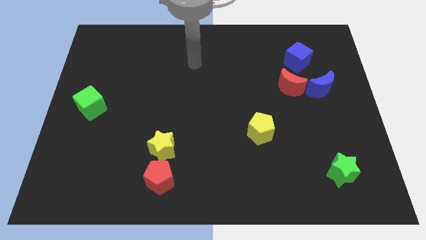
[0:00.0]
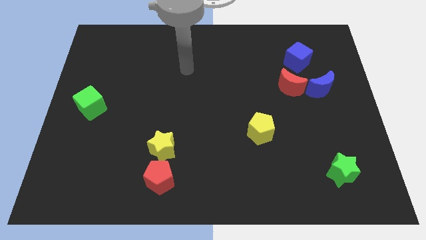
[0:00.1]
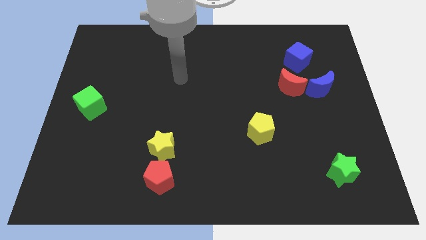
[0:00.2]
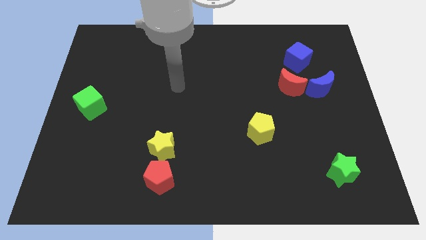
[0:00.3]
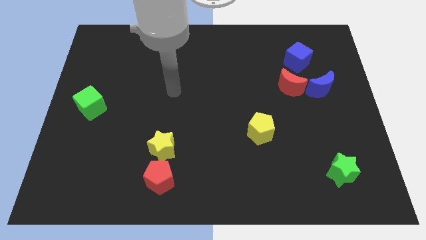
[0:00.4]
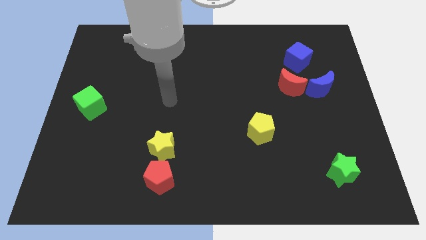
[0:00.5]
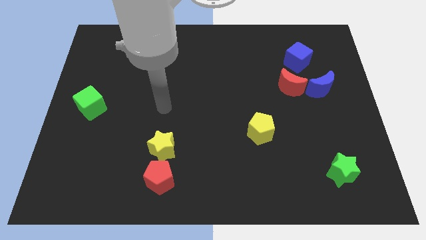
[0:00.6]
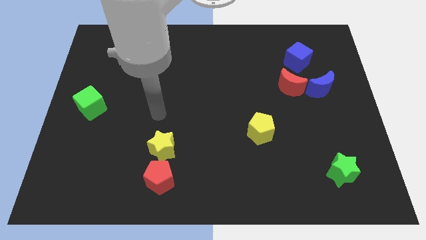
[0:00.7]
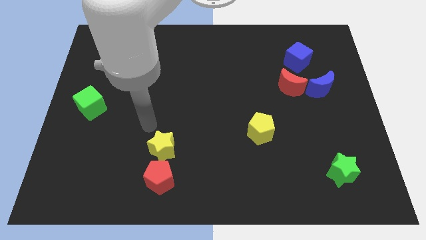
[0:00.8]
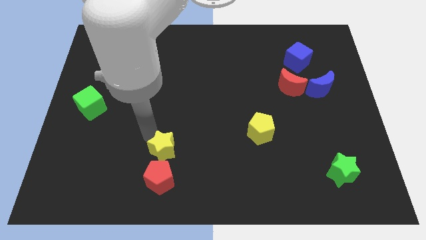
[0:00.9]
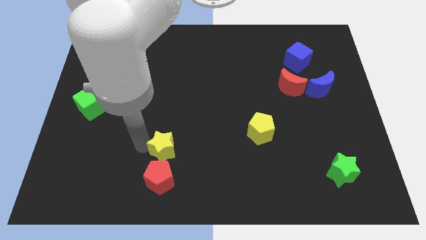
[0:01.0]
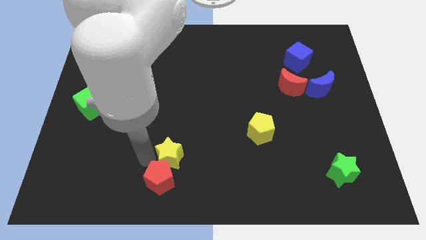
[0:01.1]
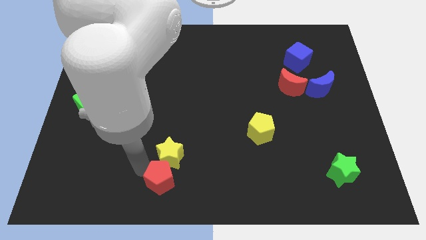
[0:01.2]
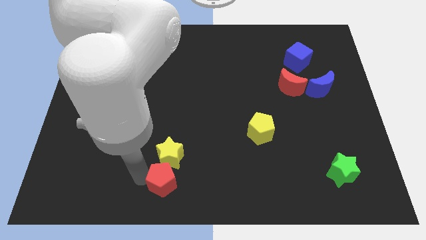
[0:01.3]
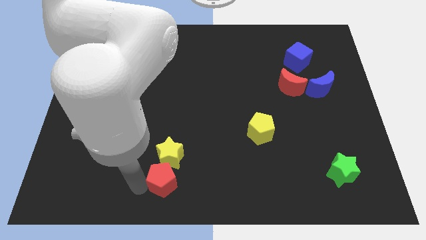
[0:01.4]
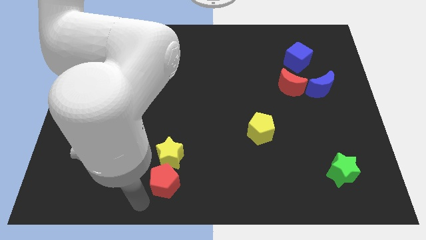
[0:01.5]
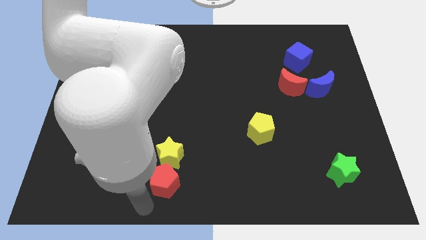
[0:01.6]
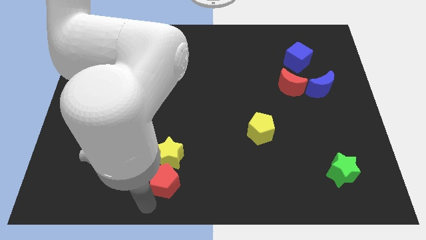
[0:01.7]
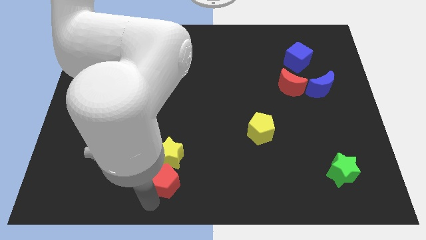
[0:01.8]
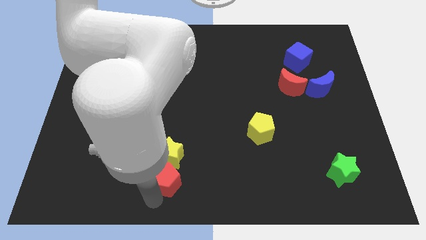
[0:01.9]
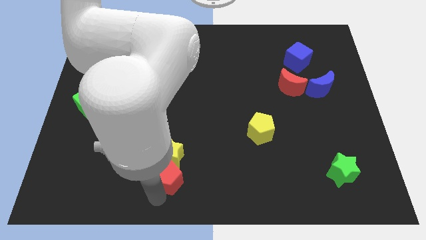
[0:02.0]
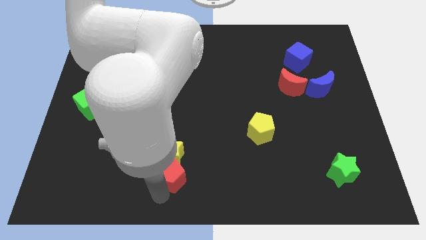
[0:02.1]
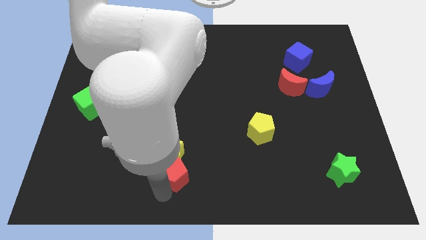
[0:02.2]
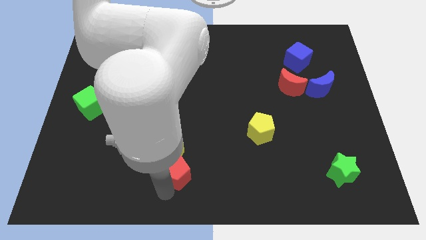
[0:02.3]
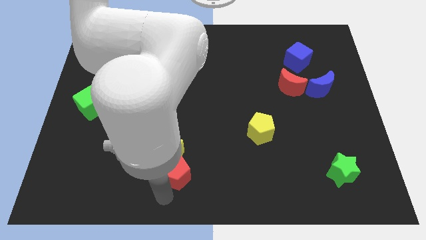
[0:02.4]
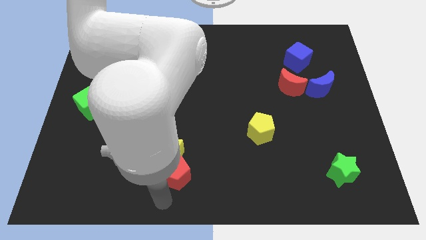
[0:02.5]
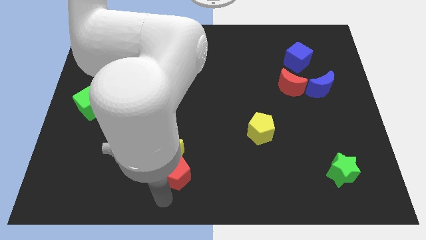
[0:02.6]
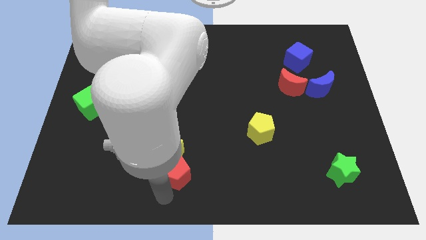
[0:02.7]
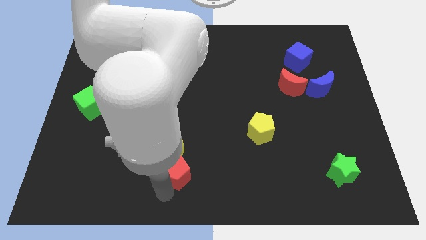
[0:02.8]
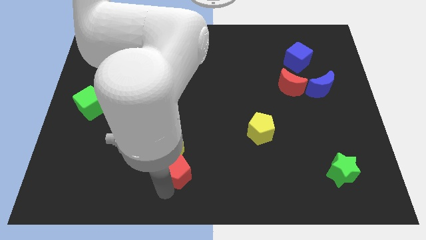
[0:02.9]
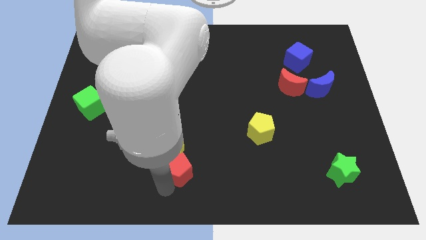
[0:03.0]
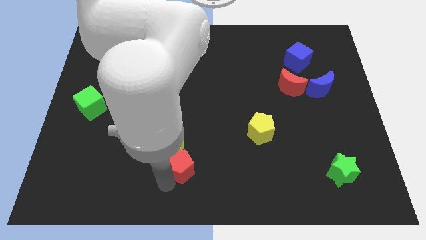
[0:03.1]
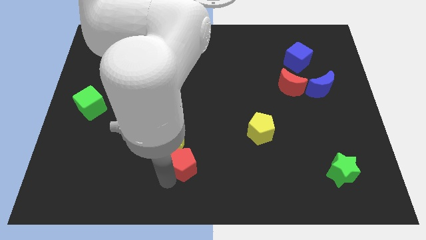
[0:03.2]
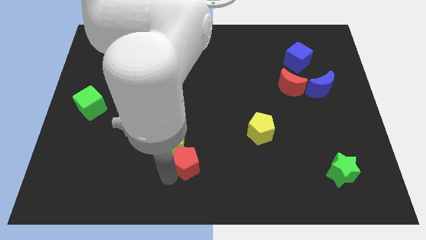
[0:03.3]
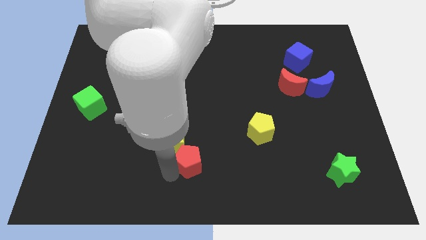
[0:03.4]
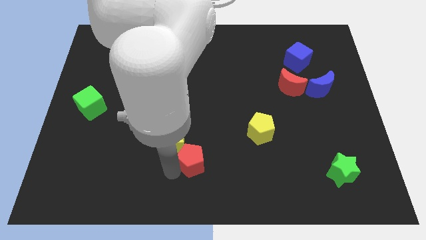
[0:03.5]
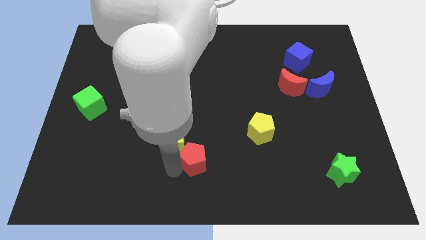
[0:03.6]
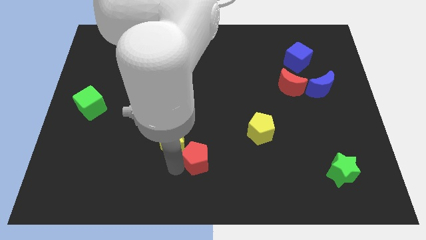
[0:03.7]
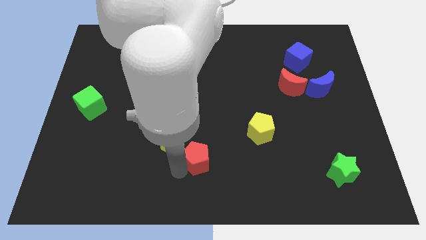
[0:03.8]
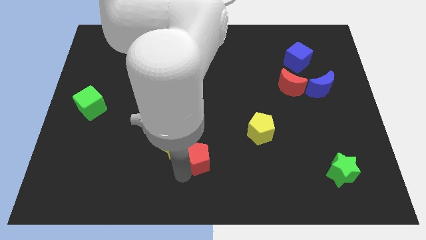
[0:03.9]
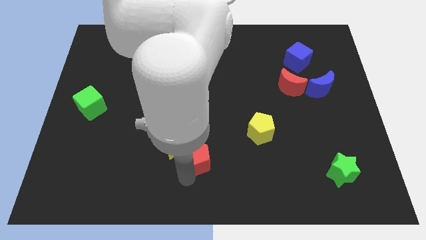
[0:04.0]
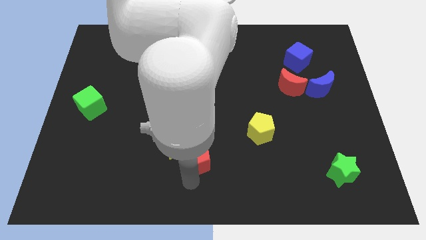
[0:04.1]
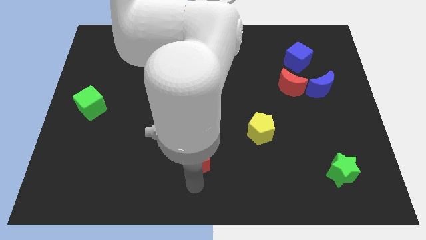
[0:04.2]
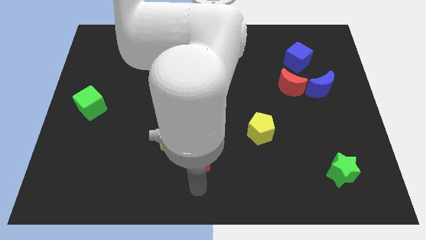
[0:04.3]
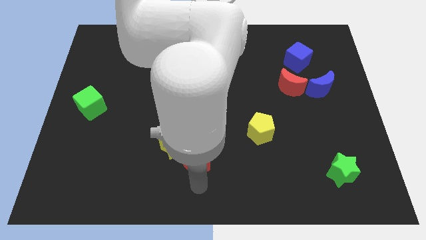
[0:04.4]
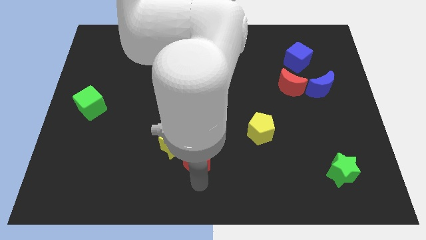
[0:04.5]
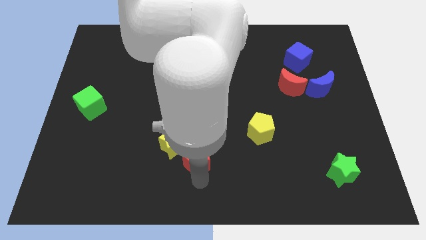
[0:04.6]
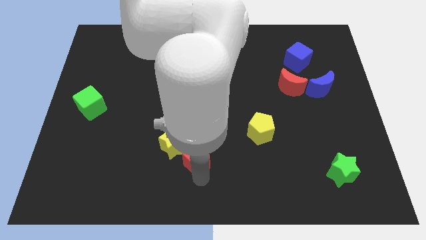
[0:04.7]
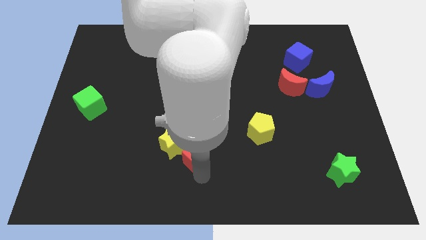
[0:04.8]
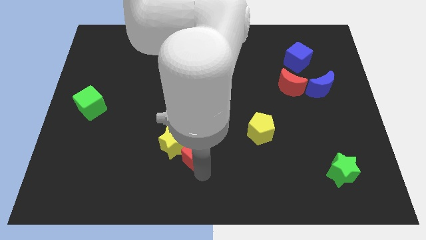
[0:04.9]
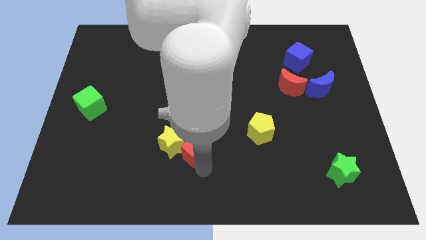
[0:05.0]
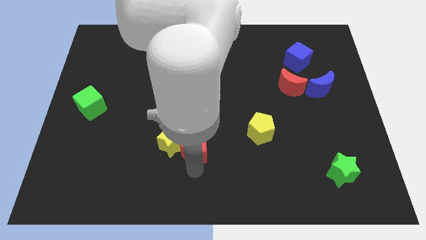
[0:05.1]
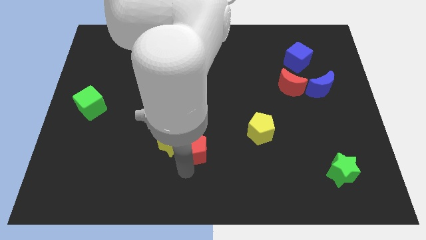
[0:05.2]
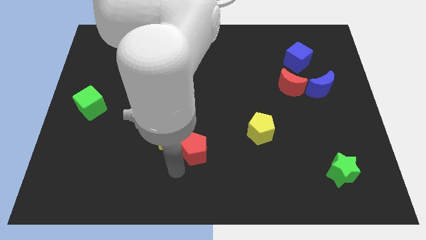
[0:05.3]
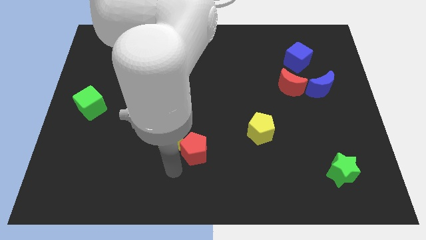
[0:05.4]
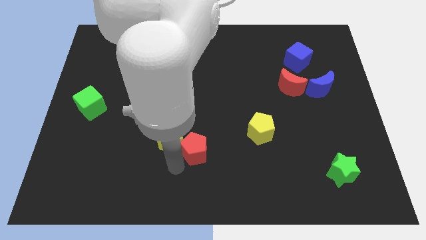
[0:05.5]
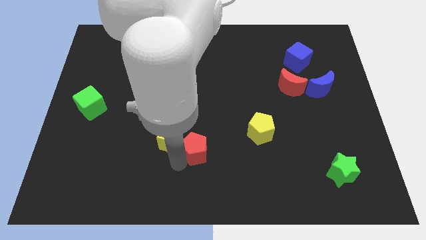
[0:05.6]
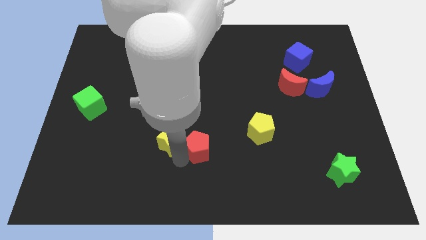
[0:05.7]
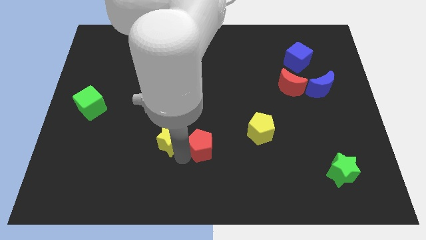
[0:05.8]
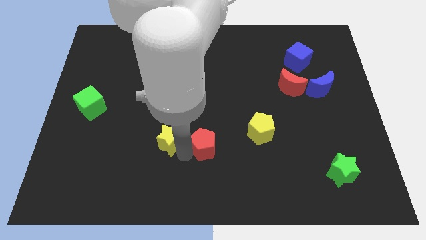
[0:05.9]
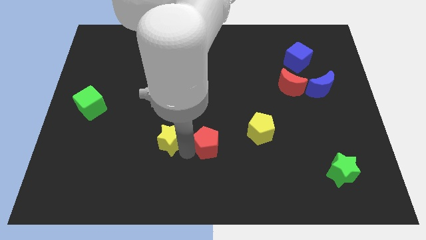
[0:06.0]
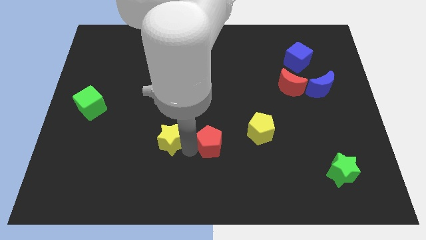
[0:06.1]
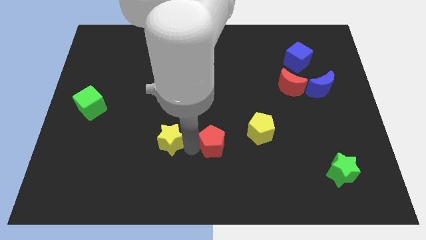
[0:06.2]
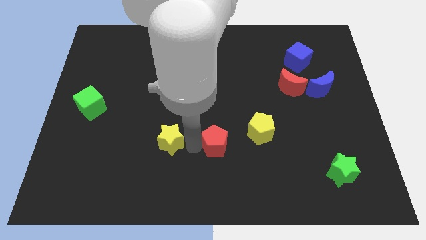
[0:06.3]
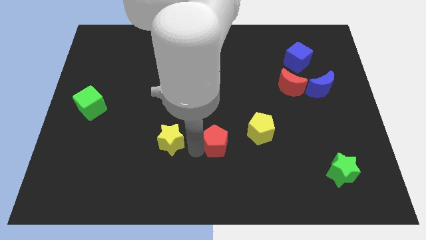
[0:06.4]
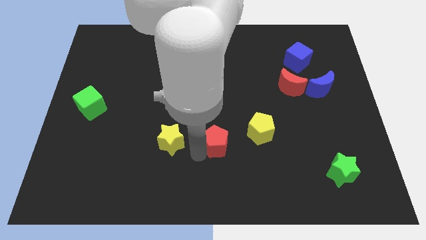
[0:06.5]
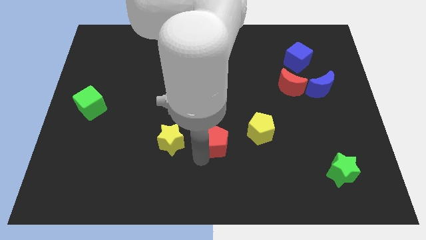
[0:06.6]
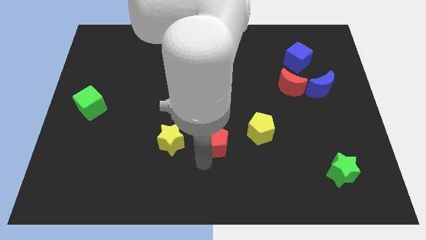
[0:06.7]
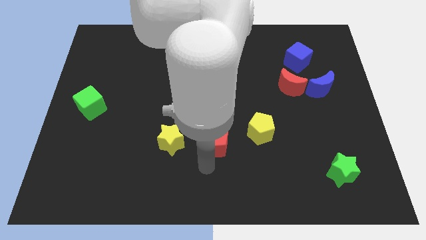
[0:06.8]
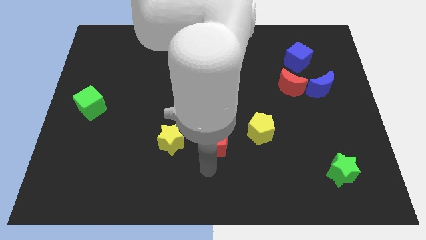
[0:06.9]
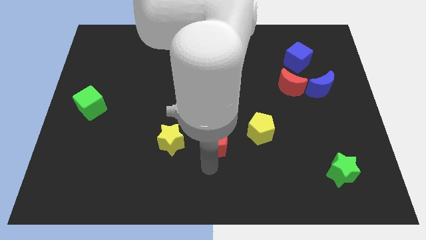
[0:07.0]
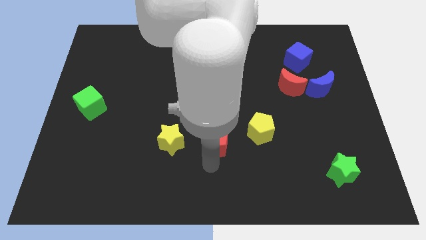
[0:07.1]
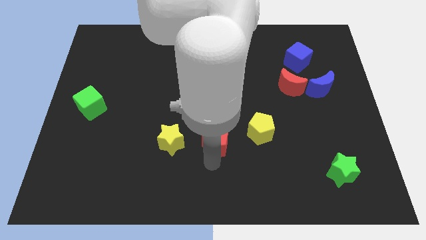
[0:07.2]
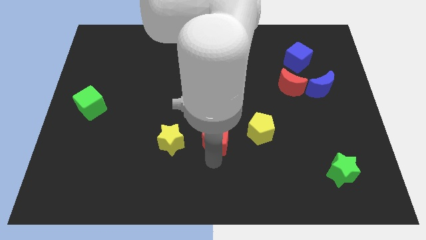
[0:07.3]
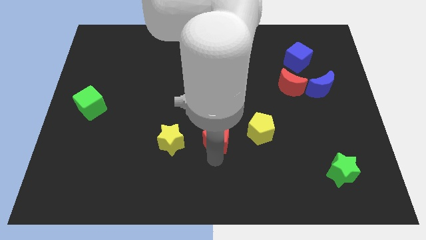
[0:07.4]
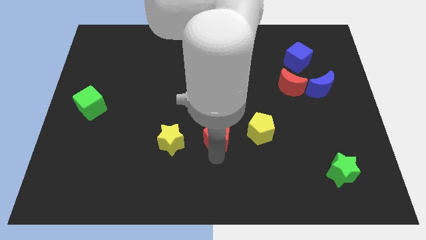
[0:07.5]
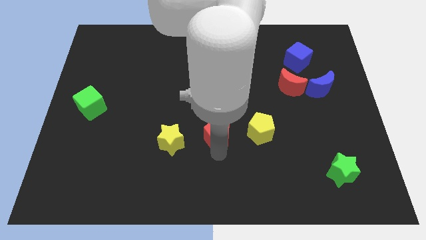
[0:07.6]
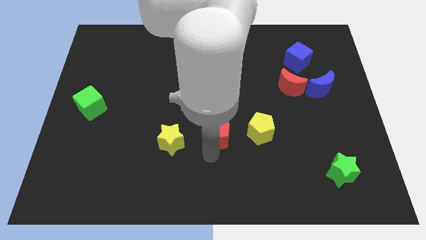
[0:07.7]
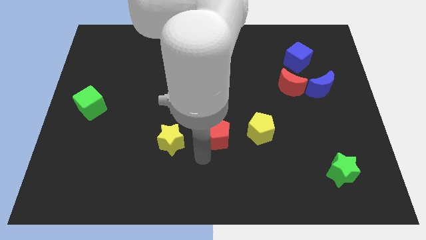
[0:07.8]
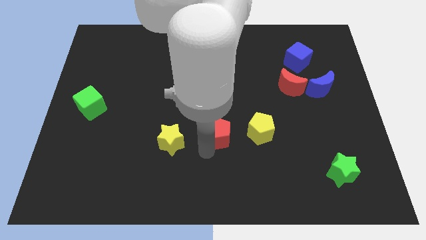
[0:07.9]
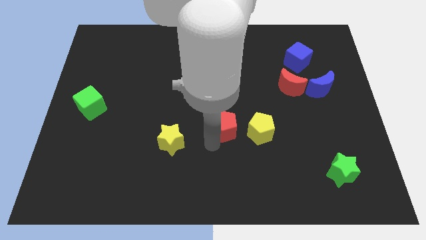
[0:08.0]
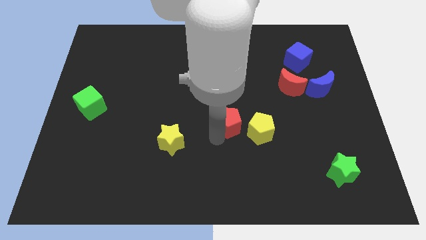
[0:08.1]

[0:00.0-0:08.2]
slide the red pentagon diagonally upwards and right
